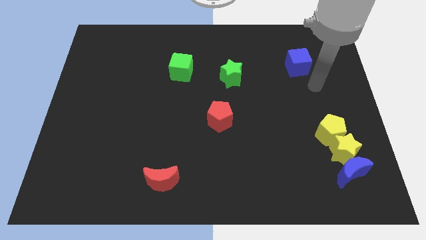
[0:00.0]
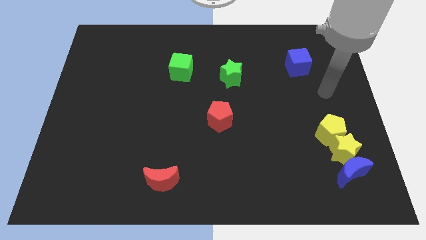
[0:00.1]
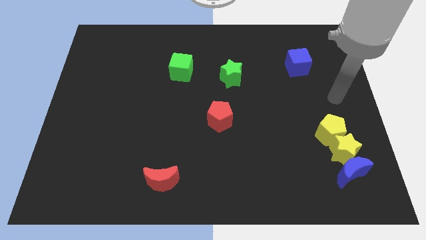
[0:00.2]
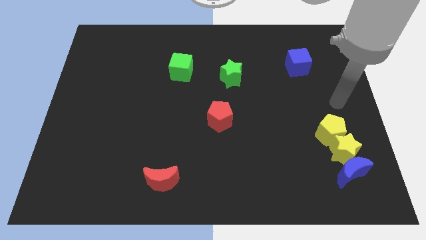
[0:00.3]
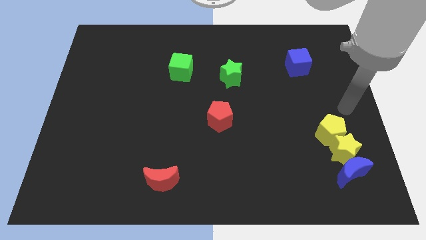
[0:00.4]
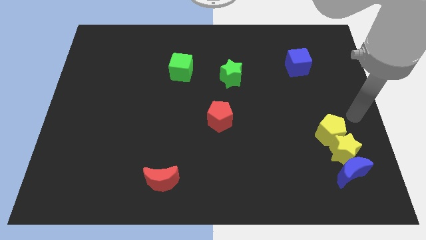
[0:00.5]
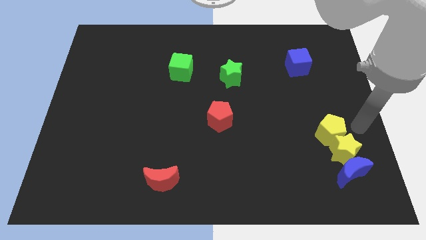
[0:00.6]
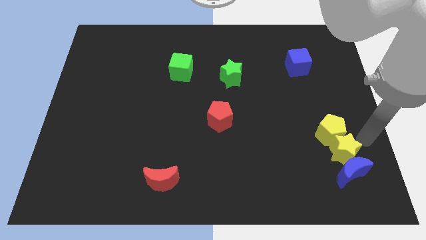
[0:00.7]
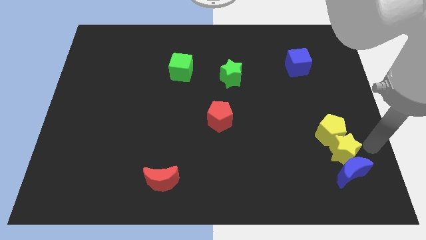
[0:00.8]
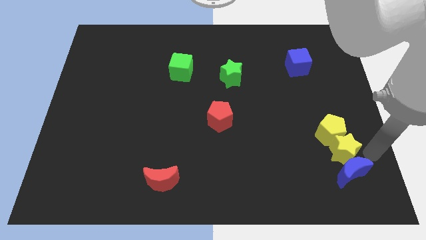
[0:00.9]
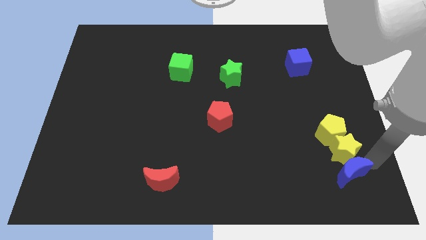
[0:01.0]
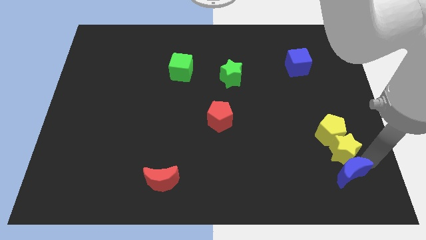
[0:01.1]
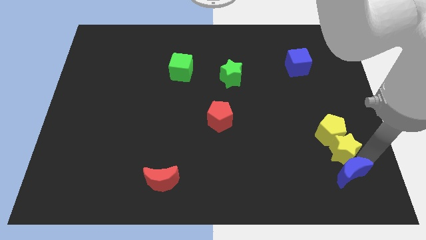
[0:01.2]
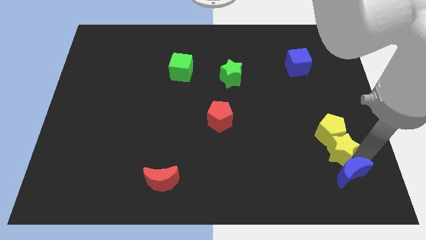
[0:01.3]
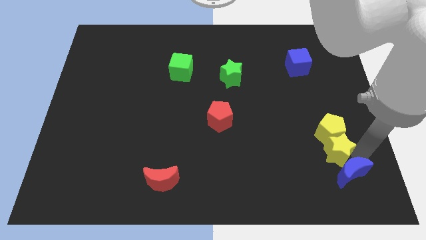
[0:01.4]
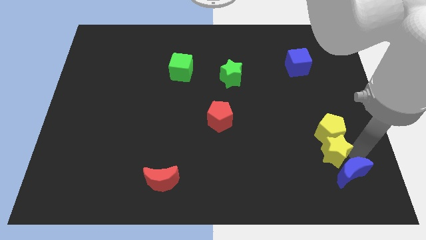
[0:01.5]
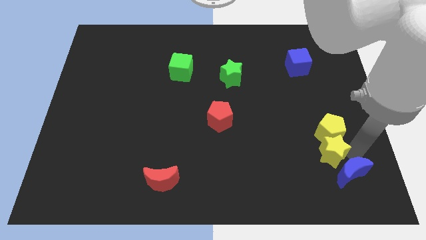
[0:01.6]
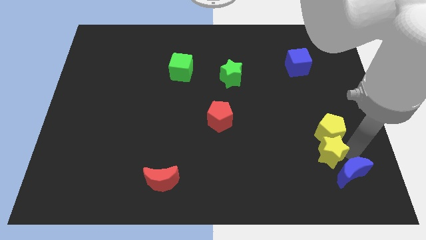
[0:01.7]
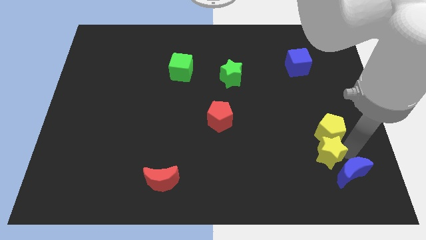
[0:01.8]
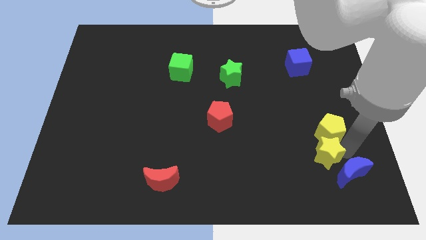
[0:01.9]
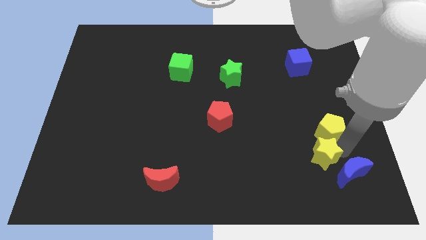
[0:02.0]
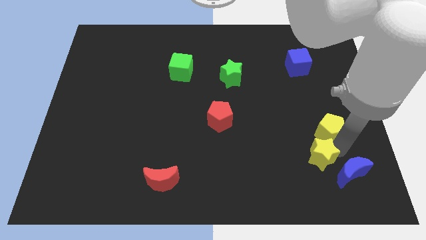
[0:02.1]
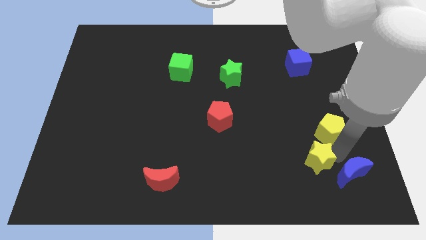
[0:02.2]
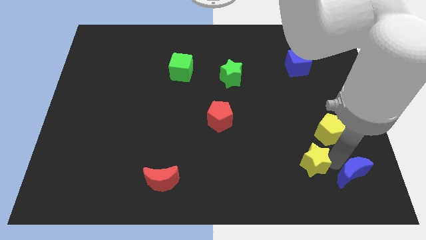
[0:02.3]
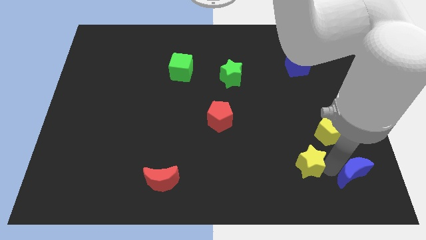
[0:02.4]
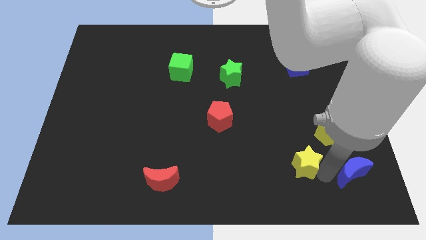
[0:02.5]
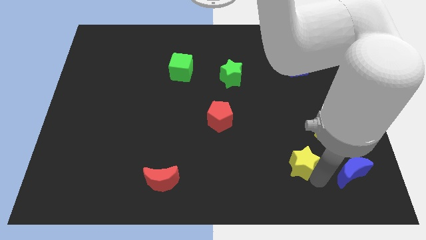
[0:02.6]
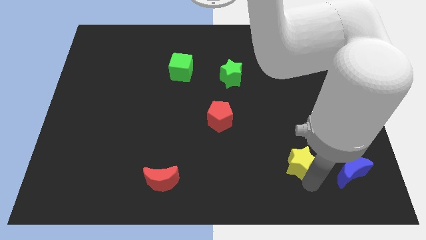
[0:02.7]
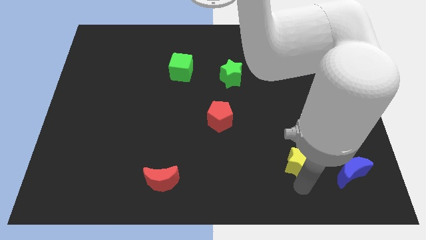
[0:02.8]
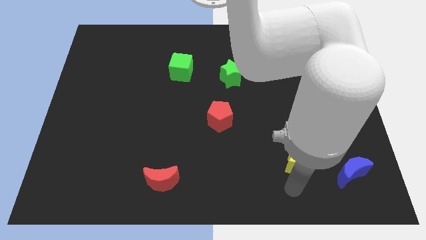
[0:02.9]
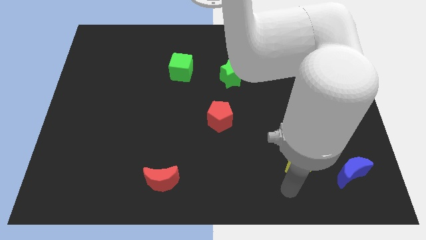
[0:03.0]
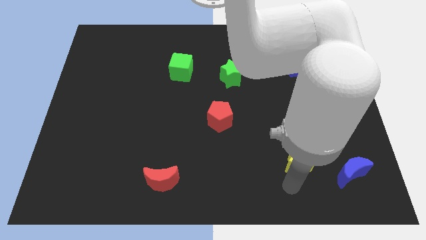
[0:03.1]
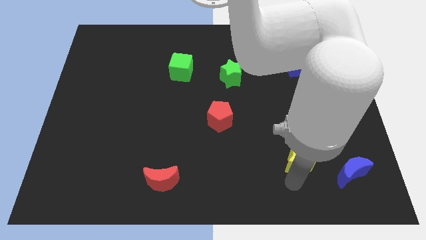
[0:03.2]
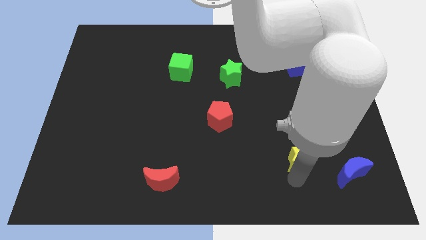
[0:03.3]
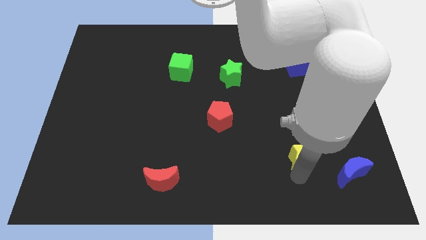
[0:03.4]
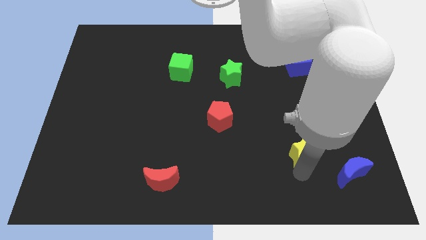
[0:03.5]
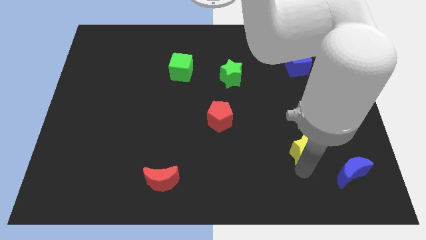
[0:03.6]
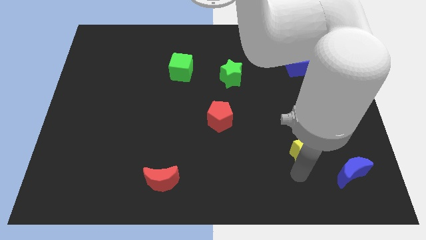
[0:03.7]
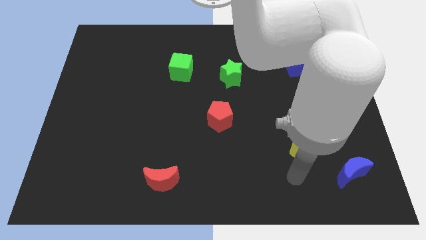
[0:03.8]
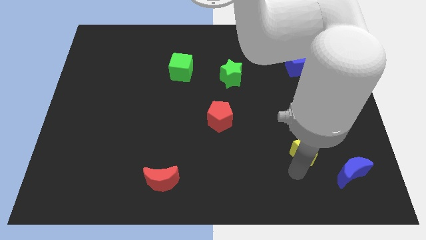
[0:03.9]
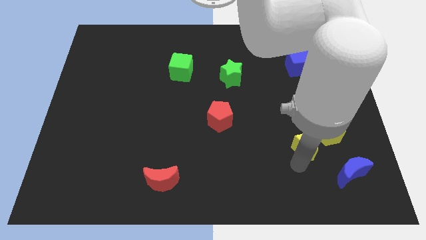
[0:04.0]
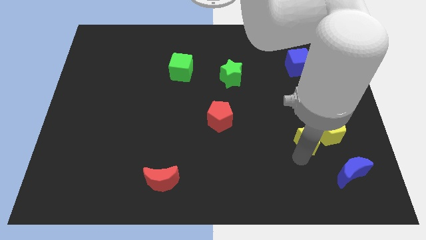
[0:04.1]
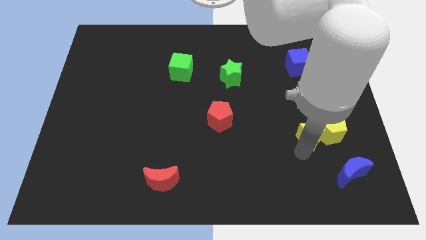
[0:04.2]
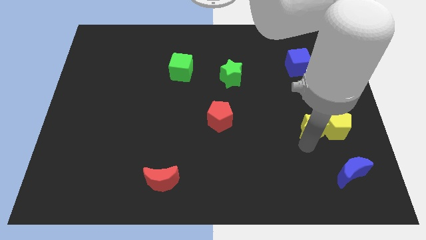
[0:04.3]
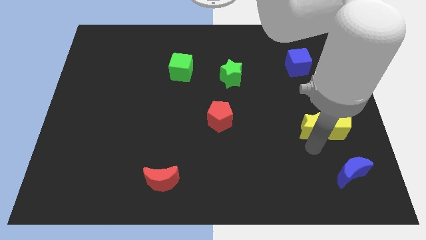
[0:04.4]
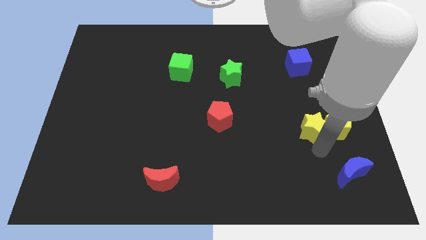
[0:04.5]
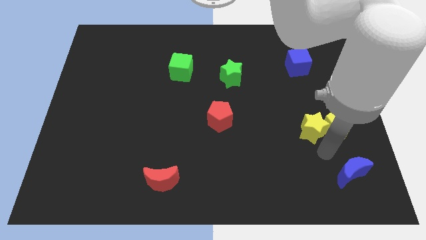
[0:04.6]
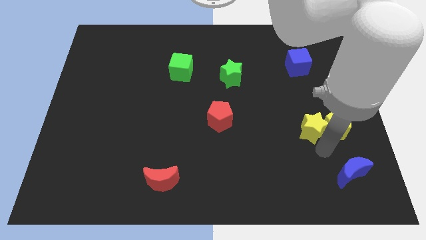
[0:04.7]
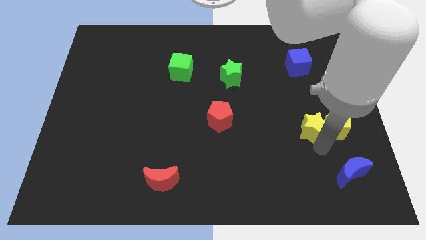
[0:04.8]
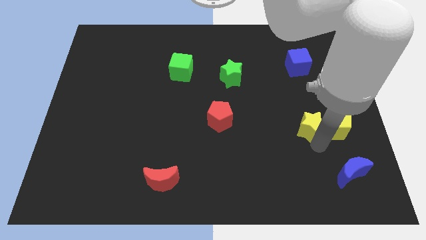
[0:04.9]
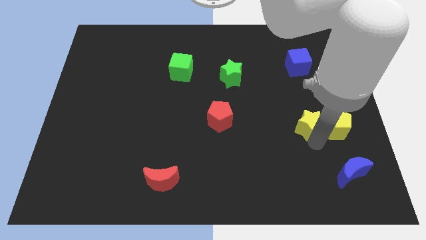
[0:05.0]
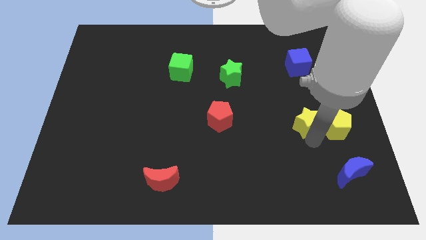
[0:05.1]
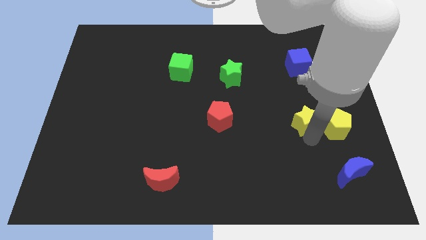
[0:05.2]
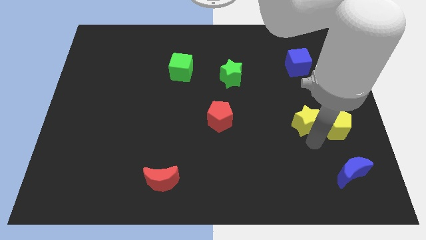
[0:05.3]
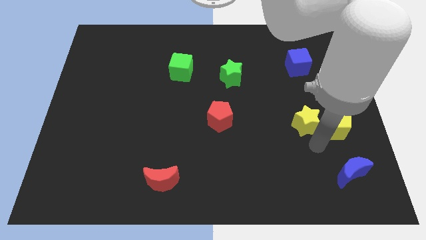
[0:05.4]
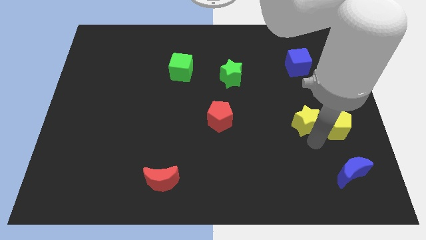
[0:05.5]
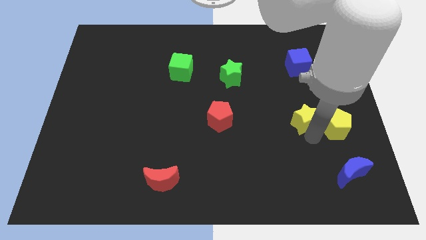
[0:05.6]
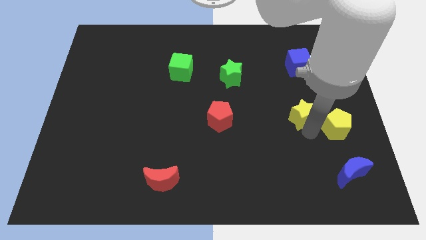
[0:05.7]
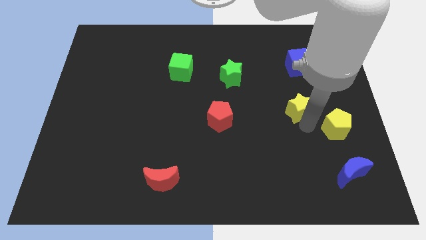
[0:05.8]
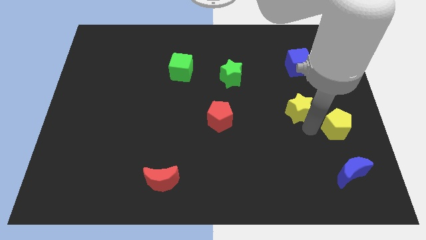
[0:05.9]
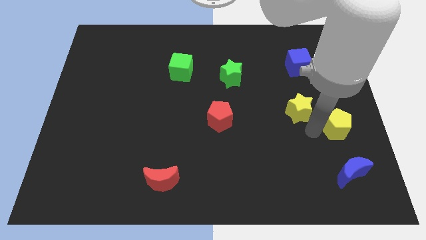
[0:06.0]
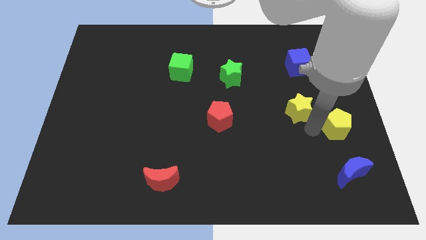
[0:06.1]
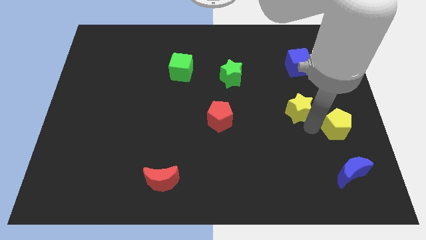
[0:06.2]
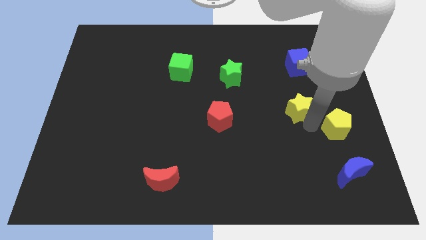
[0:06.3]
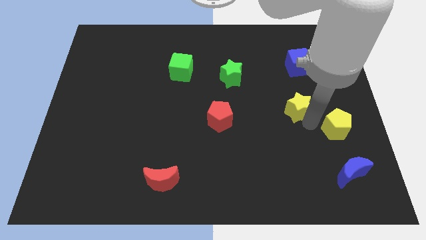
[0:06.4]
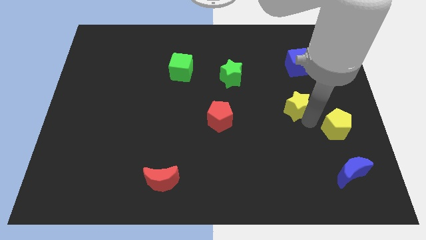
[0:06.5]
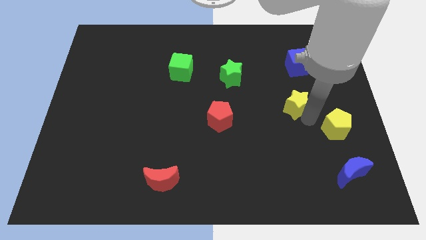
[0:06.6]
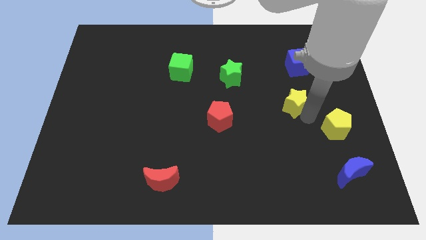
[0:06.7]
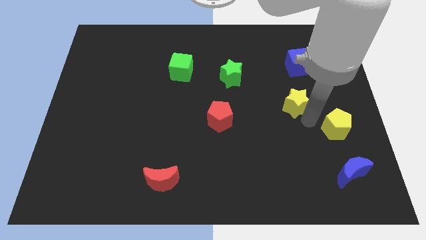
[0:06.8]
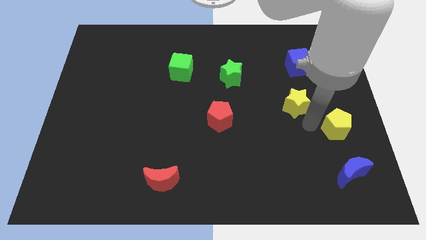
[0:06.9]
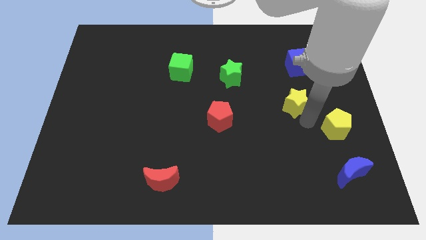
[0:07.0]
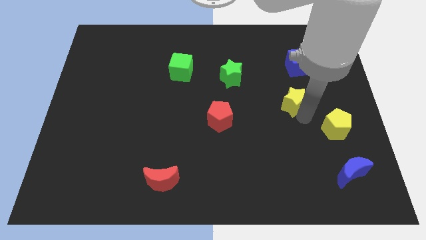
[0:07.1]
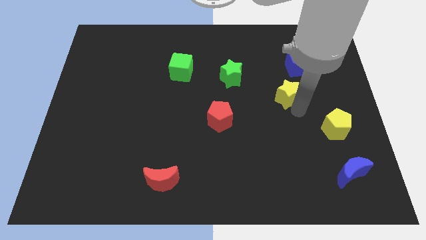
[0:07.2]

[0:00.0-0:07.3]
push the yellow star diagonally down and to the left of the blue cube
